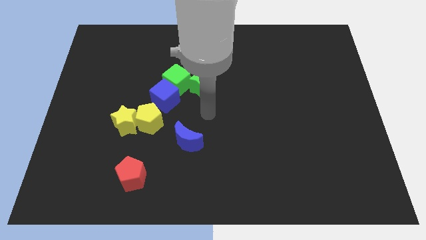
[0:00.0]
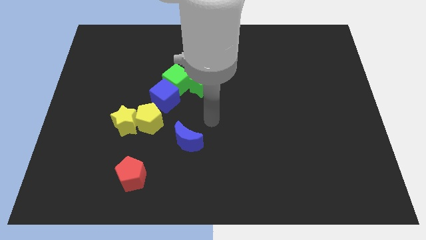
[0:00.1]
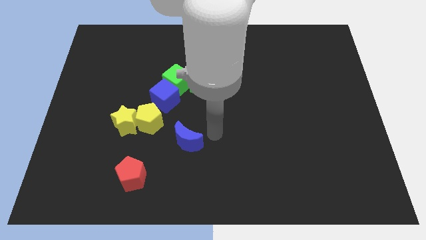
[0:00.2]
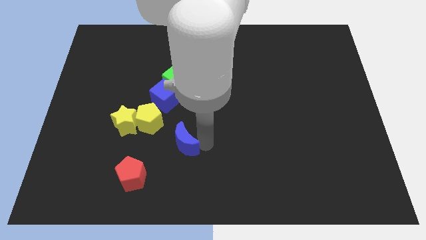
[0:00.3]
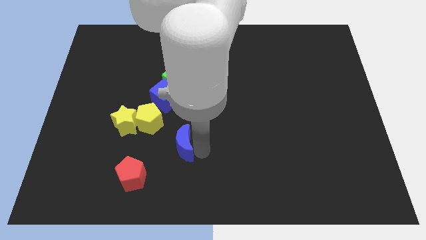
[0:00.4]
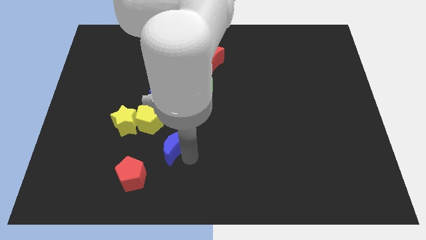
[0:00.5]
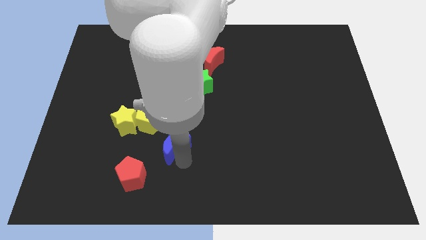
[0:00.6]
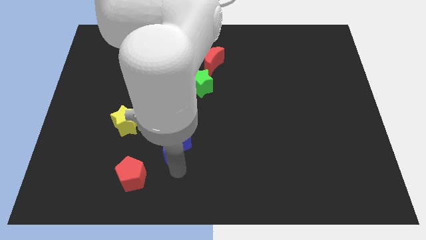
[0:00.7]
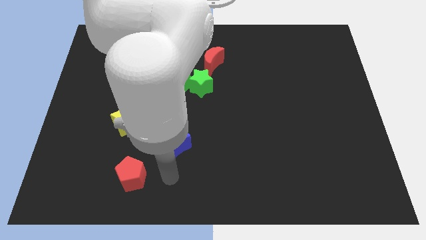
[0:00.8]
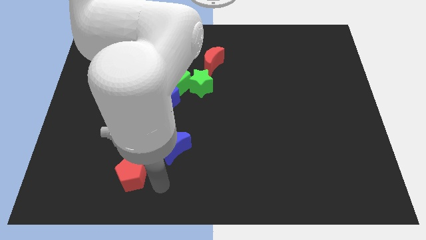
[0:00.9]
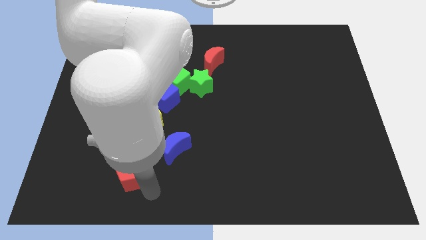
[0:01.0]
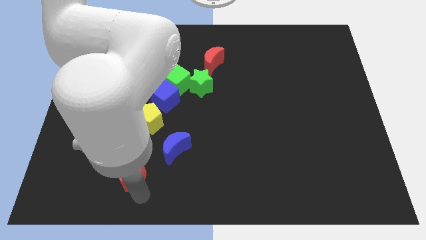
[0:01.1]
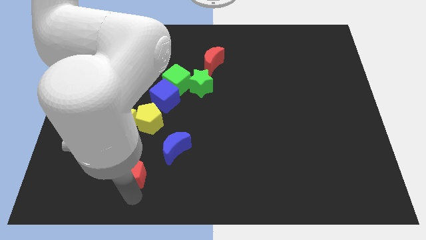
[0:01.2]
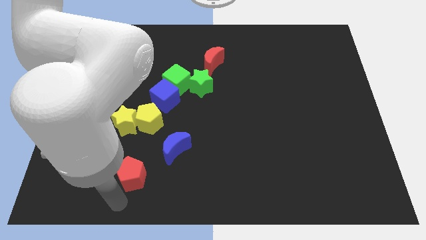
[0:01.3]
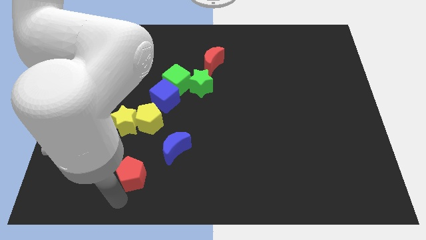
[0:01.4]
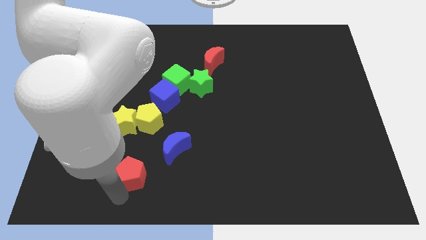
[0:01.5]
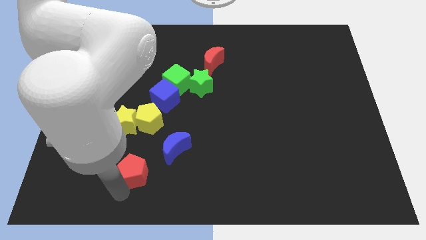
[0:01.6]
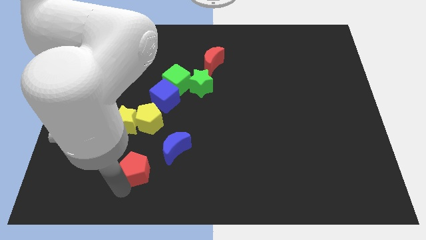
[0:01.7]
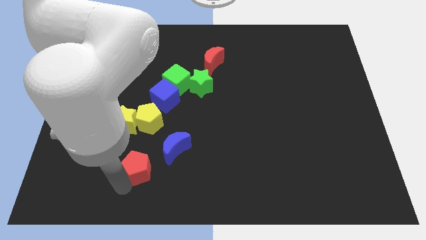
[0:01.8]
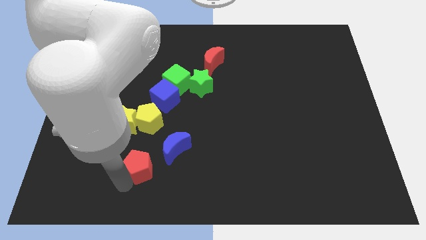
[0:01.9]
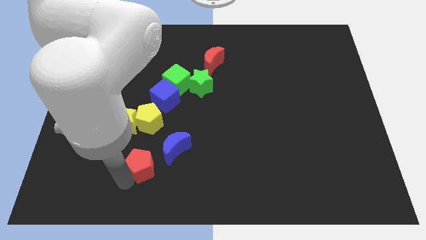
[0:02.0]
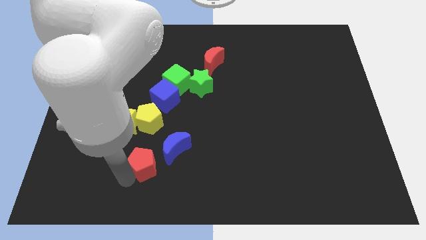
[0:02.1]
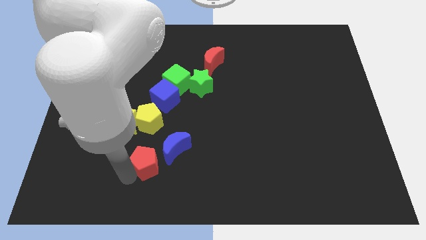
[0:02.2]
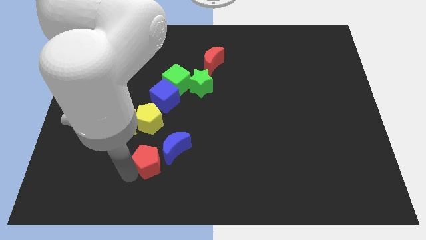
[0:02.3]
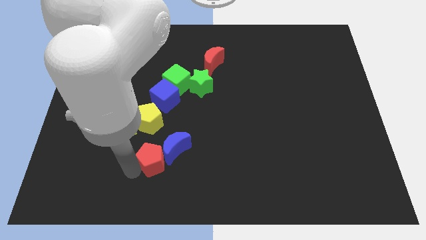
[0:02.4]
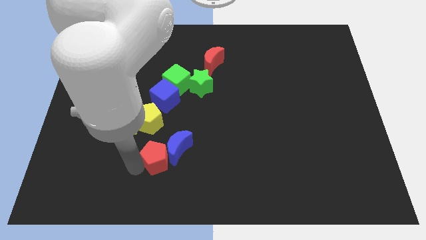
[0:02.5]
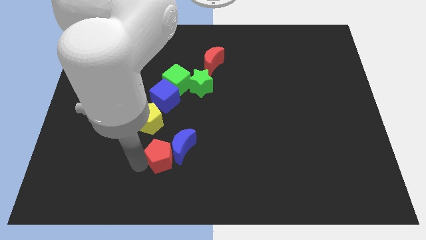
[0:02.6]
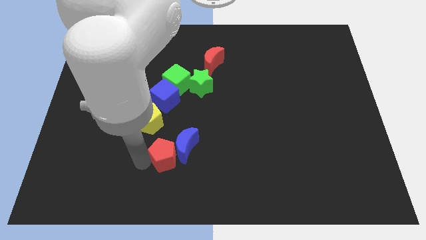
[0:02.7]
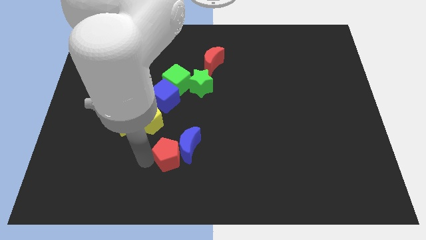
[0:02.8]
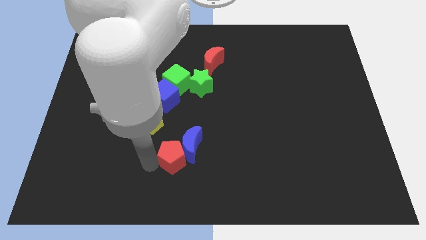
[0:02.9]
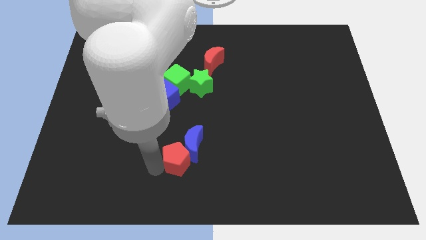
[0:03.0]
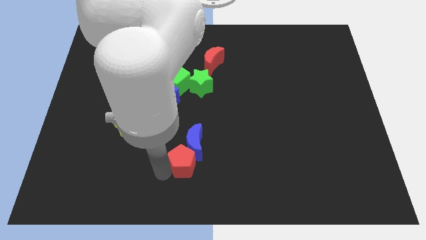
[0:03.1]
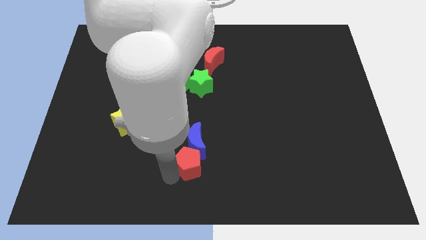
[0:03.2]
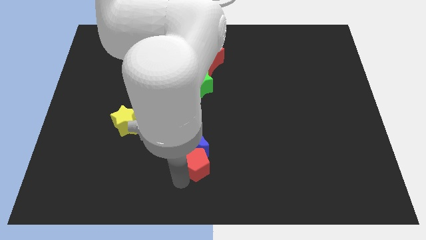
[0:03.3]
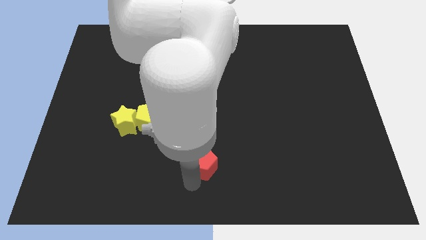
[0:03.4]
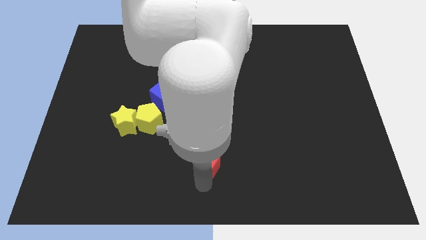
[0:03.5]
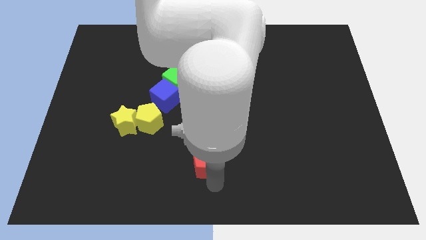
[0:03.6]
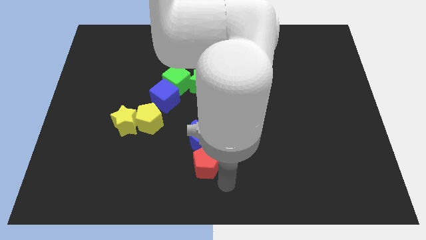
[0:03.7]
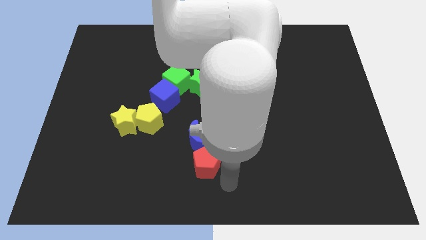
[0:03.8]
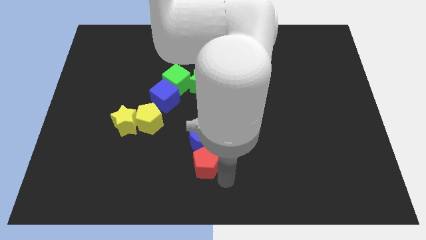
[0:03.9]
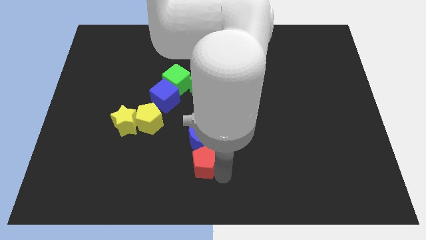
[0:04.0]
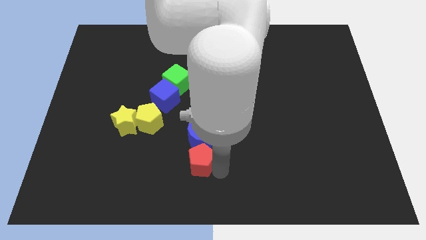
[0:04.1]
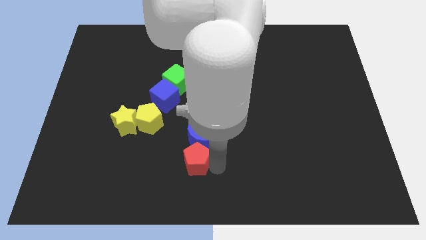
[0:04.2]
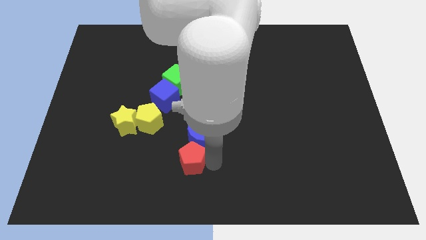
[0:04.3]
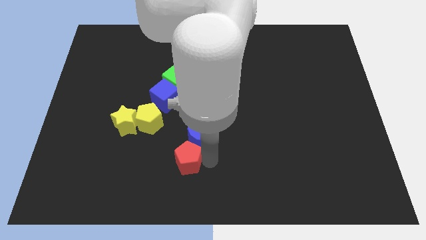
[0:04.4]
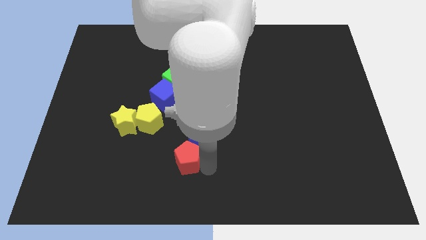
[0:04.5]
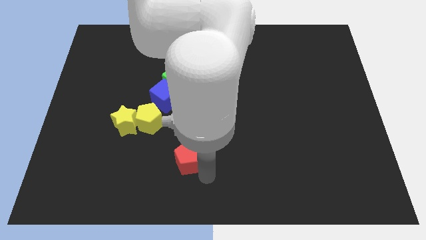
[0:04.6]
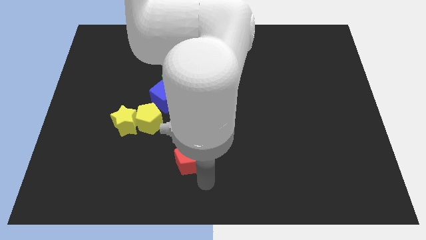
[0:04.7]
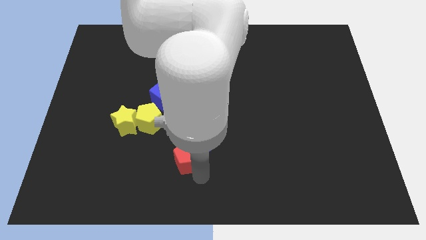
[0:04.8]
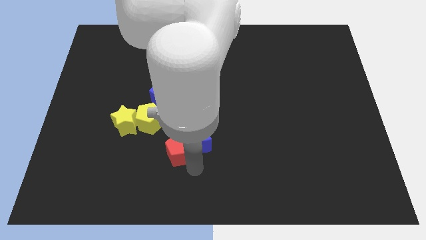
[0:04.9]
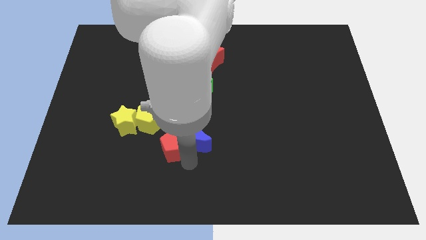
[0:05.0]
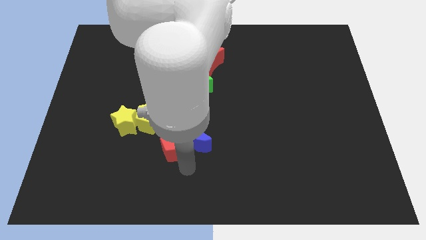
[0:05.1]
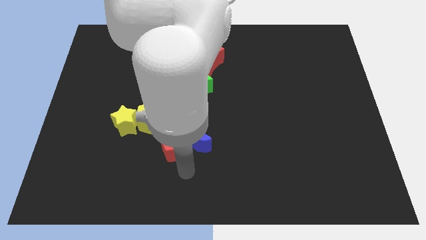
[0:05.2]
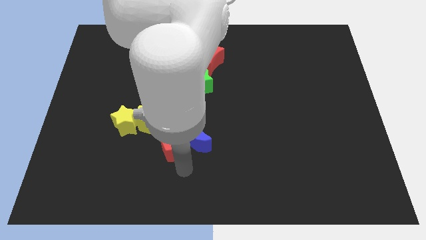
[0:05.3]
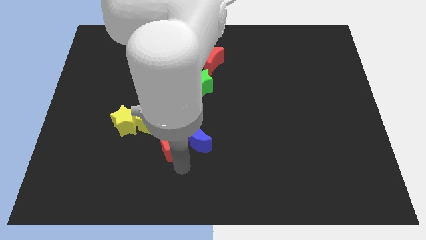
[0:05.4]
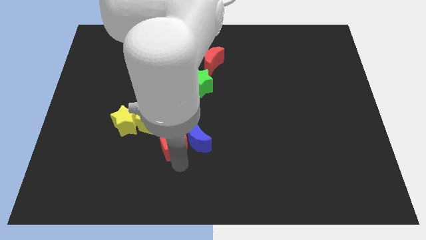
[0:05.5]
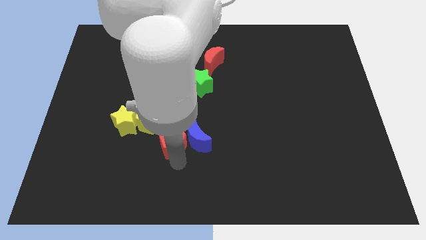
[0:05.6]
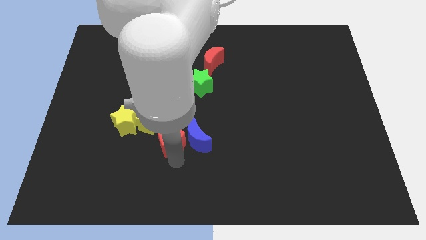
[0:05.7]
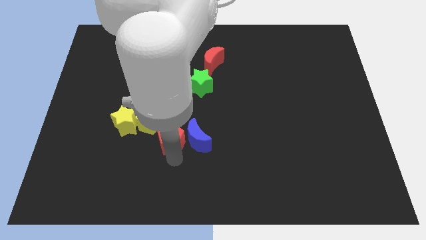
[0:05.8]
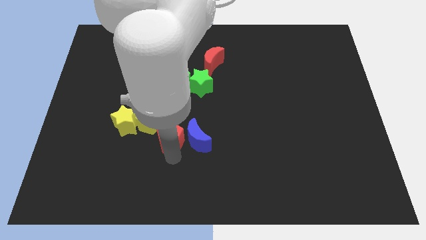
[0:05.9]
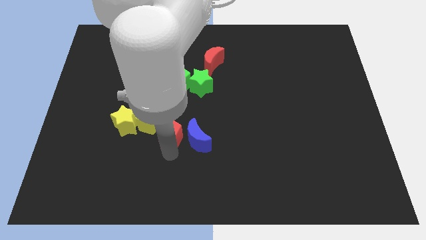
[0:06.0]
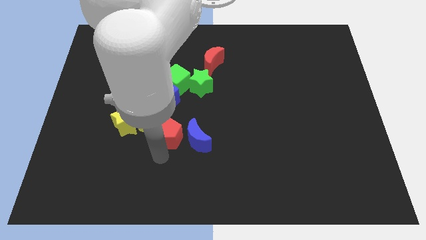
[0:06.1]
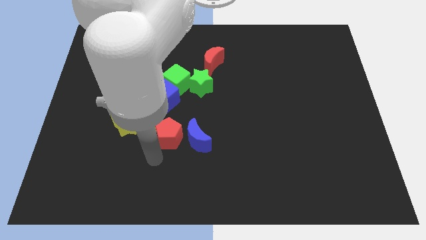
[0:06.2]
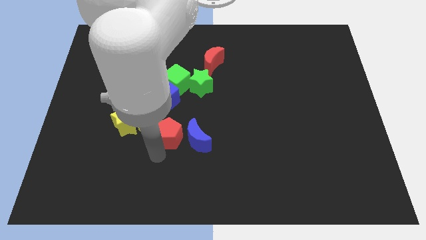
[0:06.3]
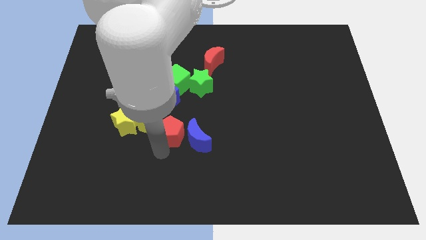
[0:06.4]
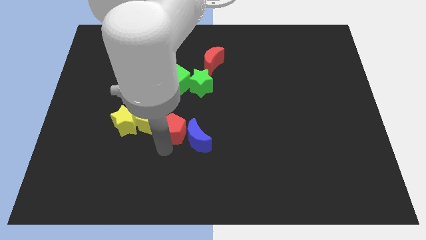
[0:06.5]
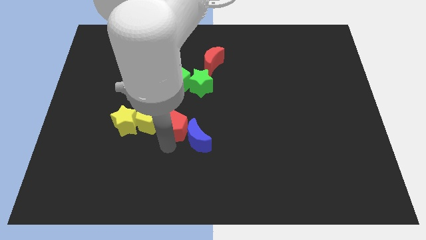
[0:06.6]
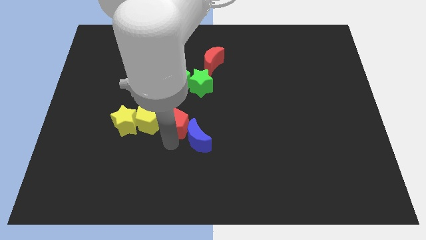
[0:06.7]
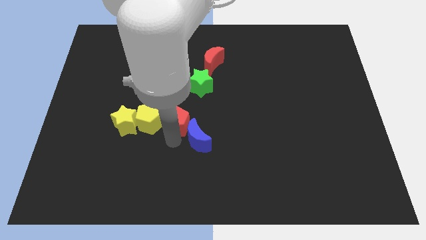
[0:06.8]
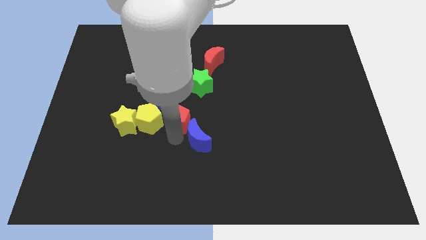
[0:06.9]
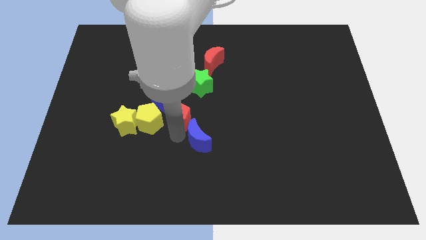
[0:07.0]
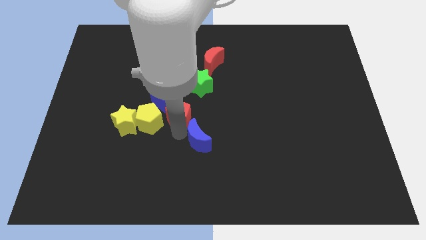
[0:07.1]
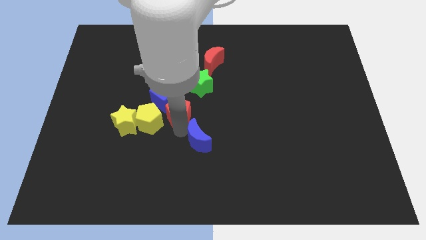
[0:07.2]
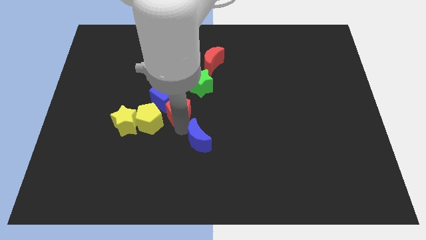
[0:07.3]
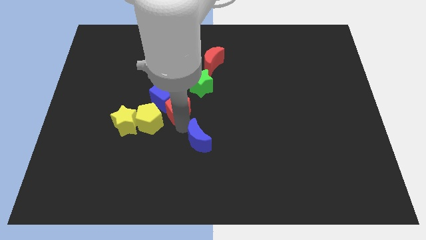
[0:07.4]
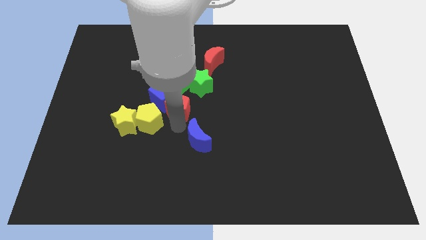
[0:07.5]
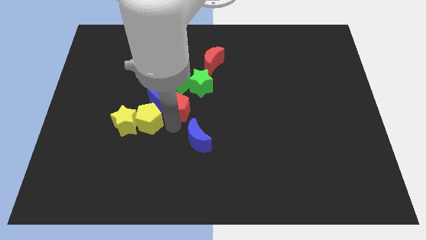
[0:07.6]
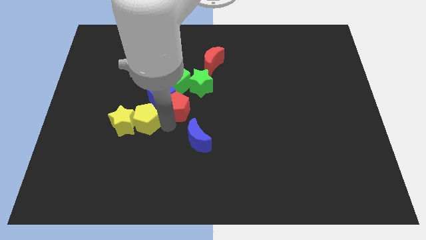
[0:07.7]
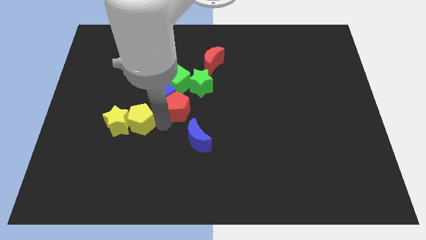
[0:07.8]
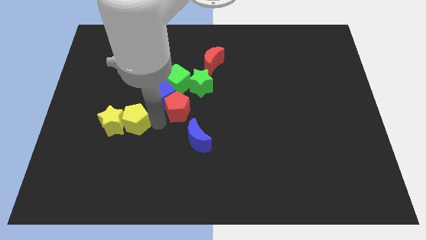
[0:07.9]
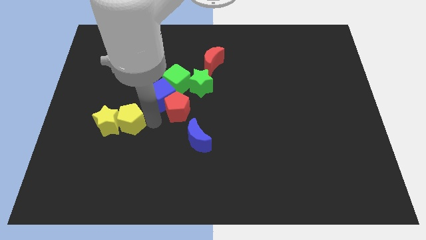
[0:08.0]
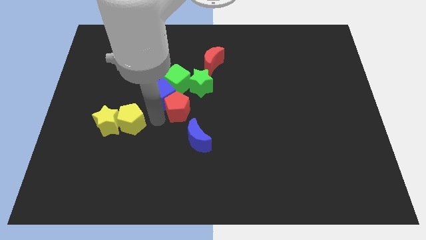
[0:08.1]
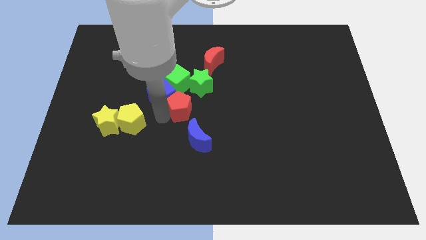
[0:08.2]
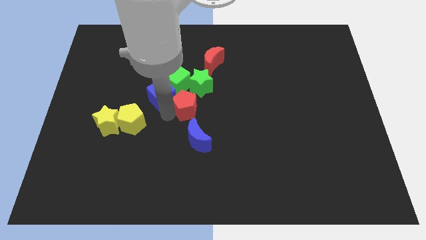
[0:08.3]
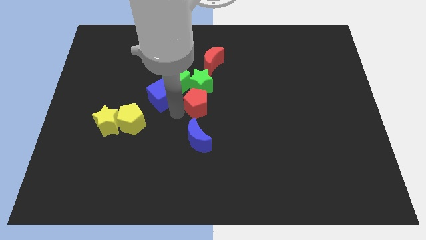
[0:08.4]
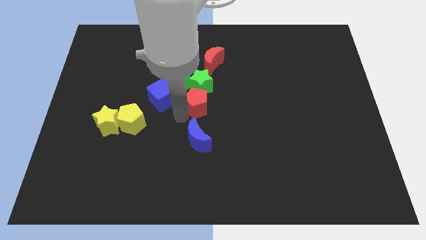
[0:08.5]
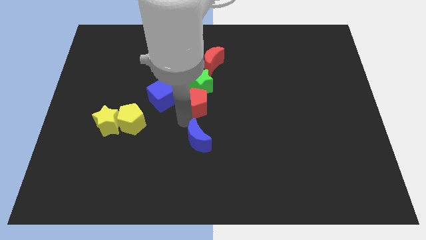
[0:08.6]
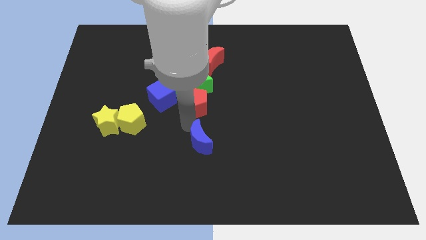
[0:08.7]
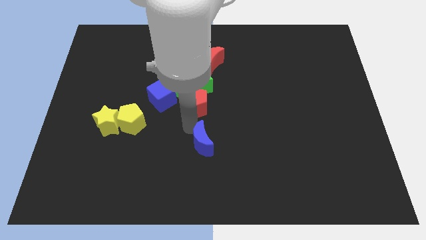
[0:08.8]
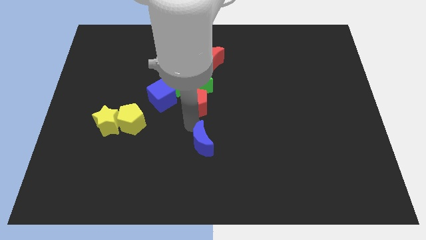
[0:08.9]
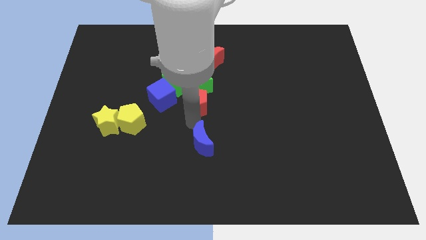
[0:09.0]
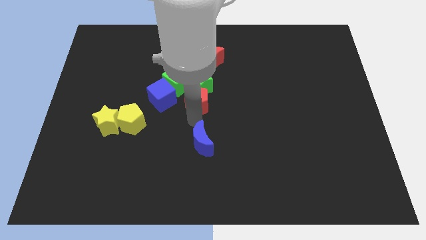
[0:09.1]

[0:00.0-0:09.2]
push the red pentagon to the green star
